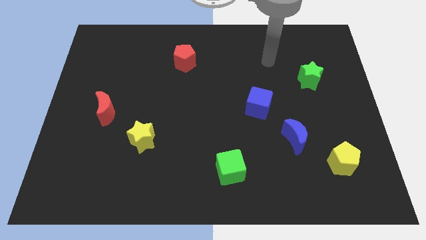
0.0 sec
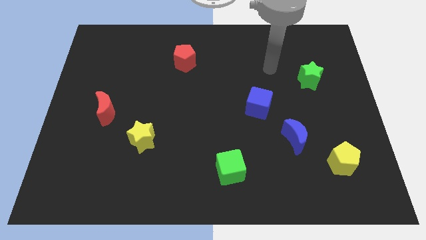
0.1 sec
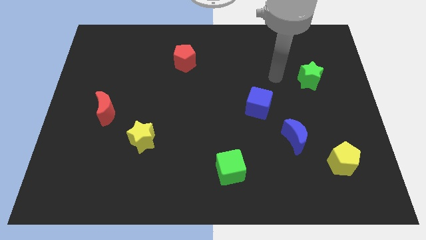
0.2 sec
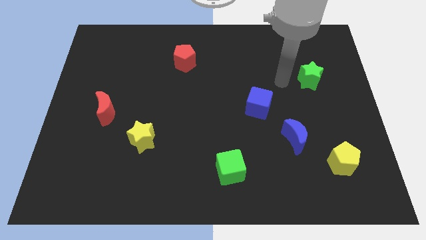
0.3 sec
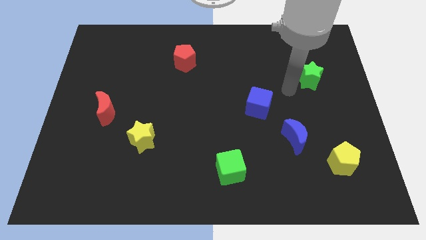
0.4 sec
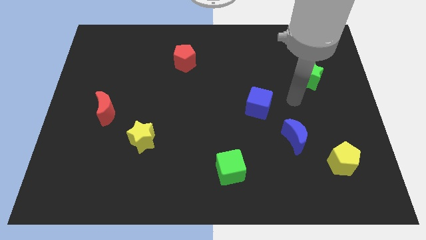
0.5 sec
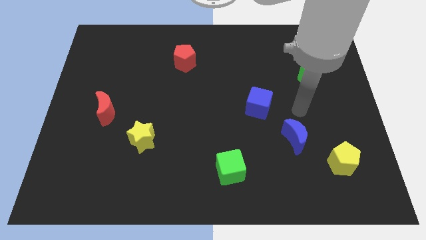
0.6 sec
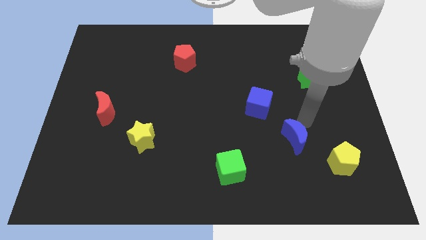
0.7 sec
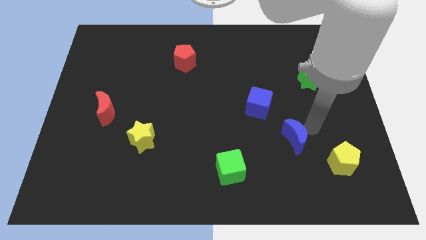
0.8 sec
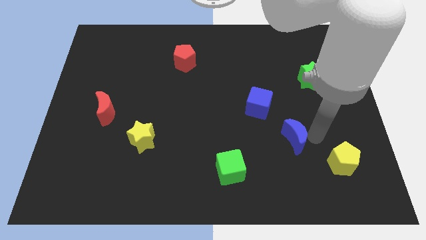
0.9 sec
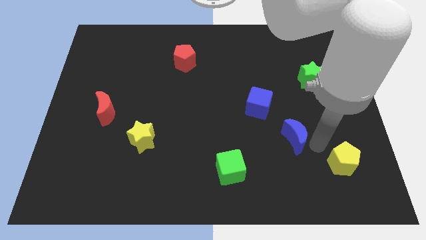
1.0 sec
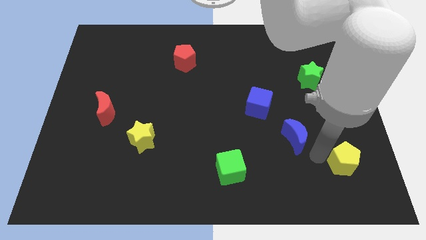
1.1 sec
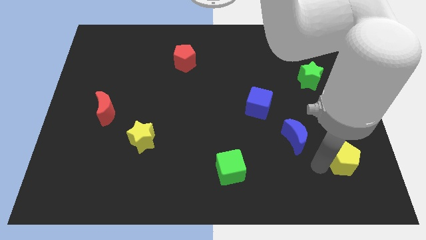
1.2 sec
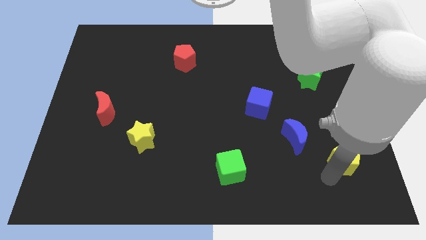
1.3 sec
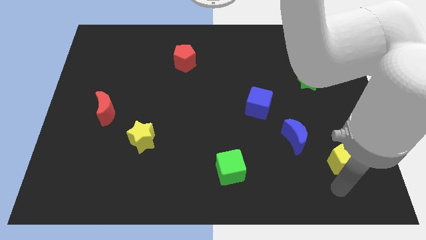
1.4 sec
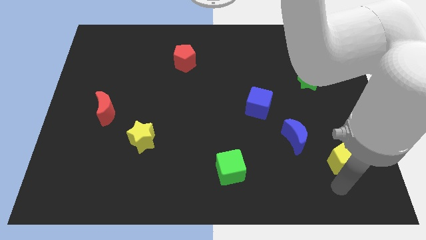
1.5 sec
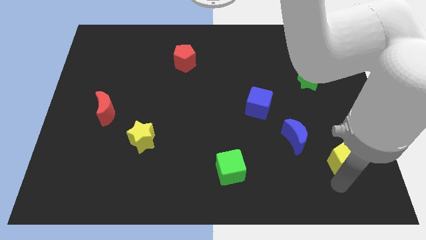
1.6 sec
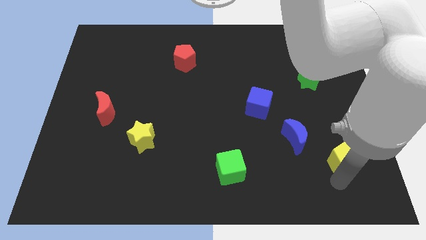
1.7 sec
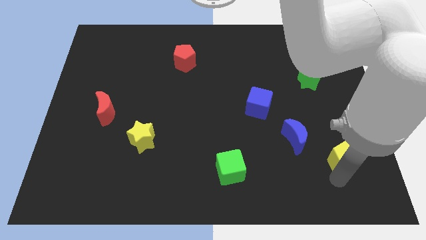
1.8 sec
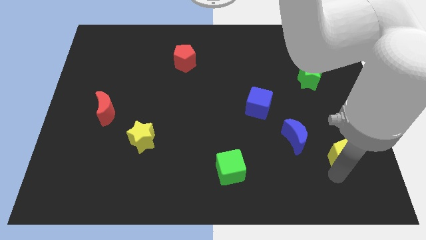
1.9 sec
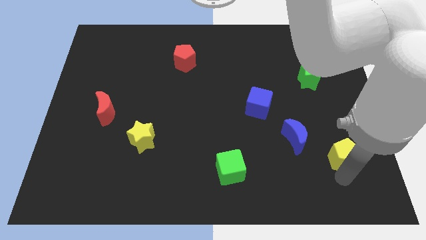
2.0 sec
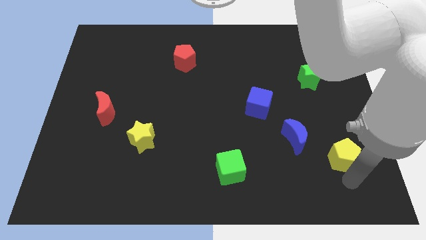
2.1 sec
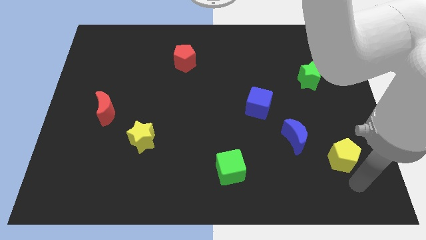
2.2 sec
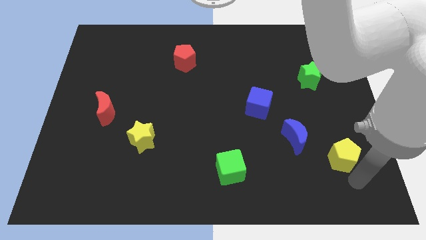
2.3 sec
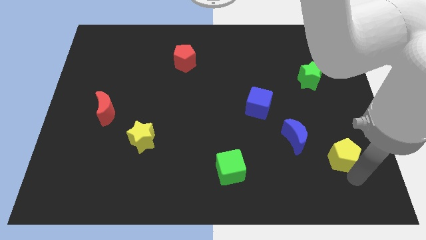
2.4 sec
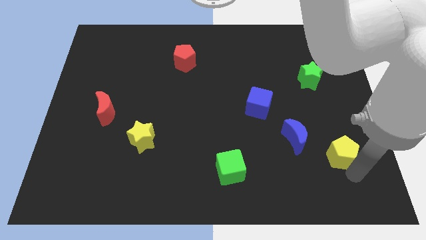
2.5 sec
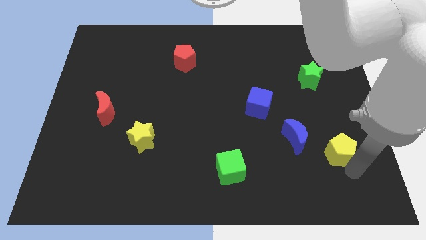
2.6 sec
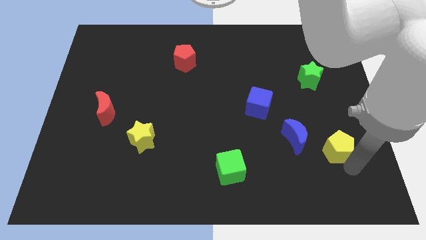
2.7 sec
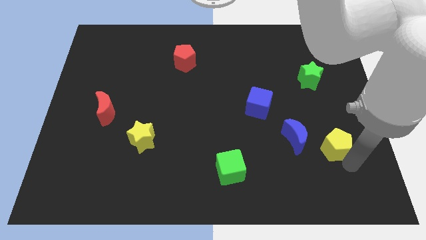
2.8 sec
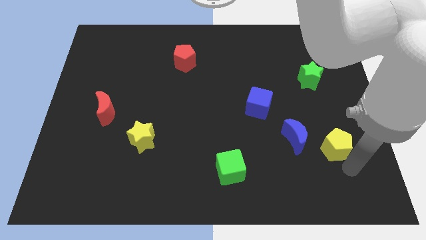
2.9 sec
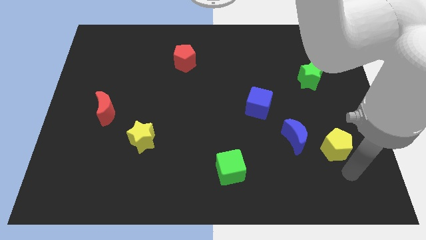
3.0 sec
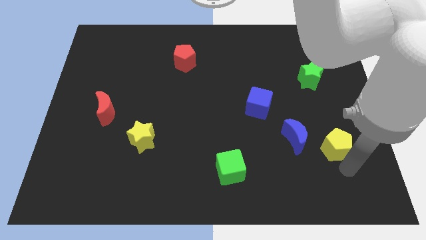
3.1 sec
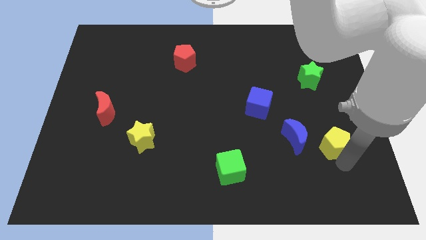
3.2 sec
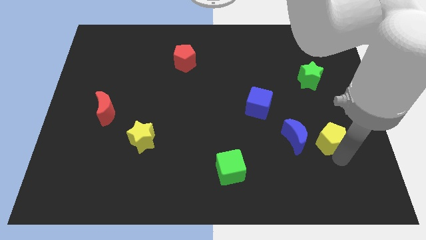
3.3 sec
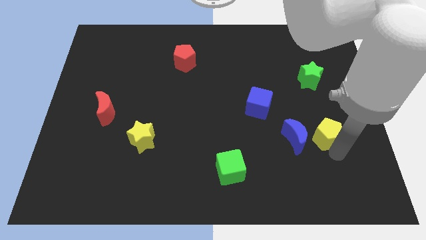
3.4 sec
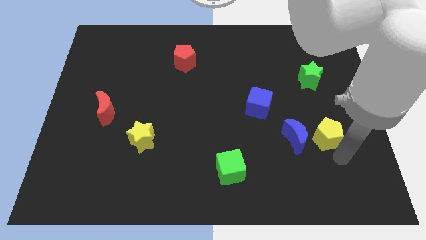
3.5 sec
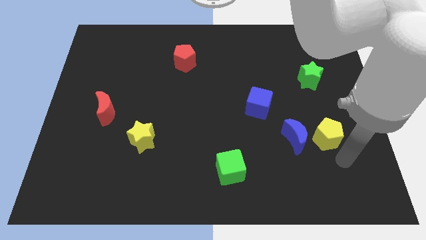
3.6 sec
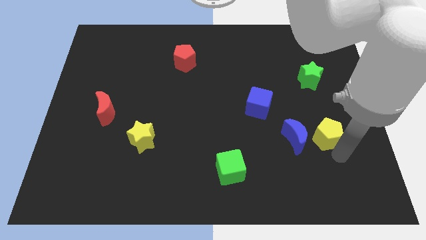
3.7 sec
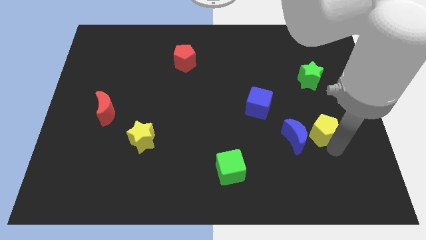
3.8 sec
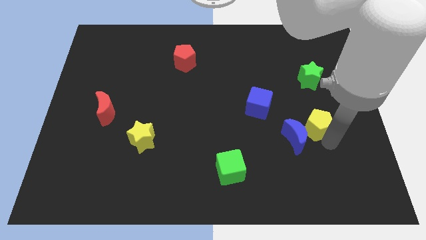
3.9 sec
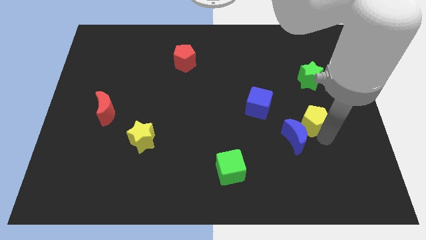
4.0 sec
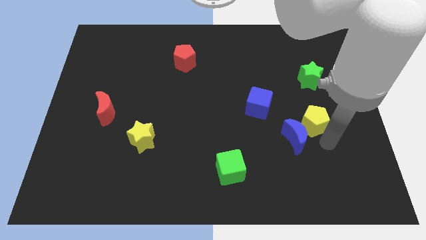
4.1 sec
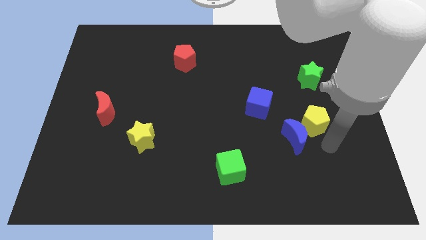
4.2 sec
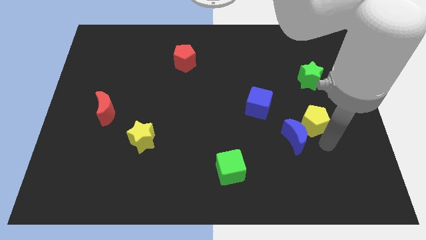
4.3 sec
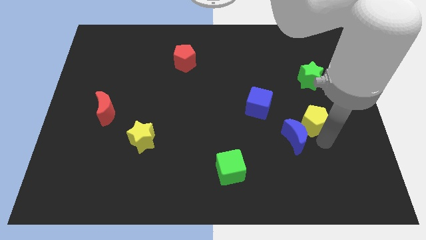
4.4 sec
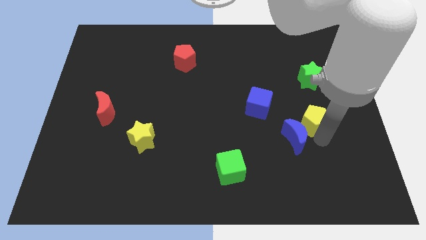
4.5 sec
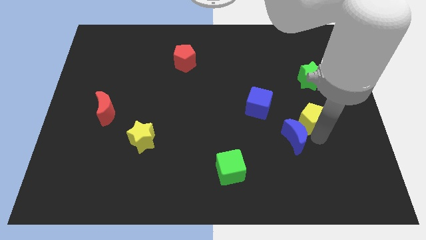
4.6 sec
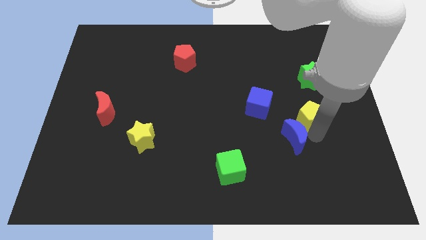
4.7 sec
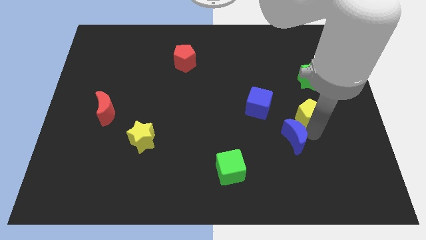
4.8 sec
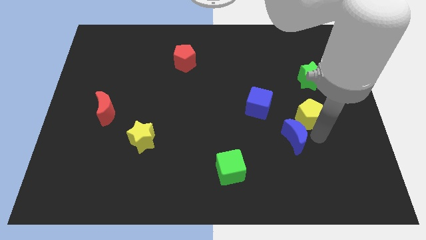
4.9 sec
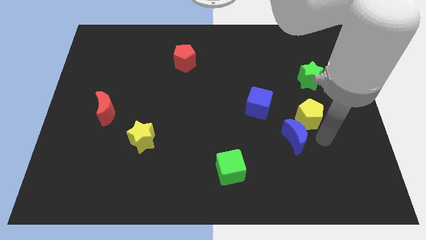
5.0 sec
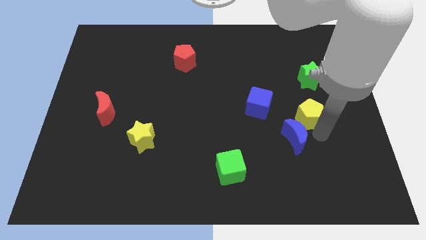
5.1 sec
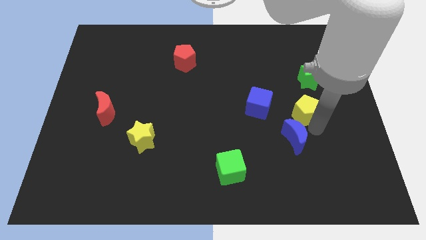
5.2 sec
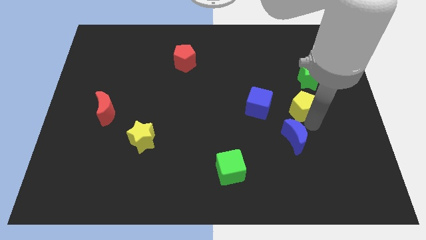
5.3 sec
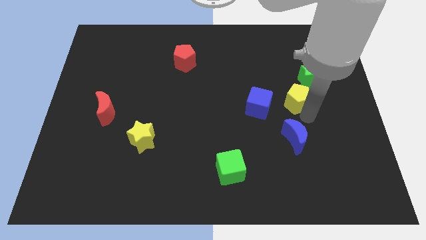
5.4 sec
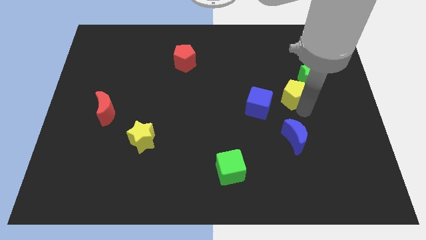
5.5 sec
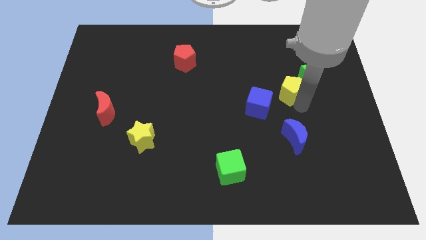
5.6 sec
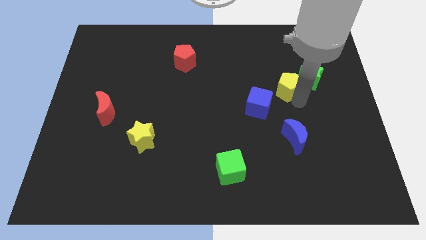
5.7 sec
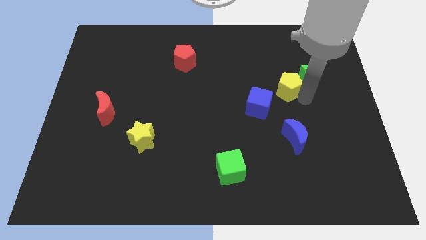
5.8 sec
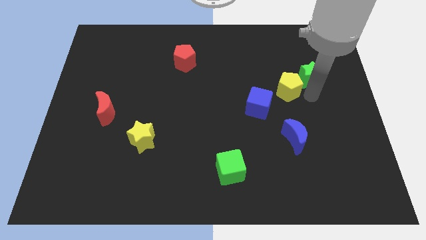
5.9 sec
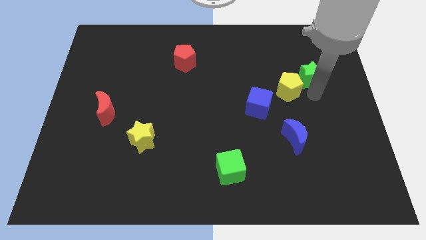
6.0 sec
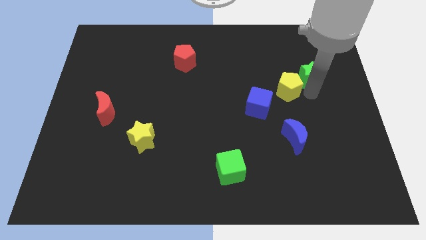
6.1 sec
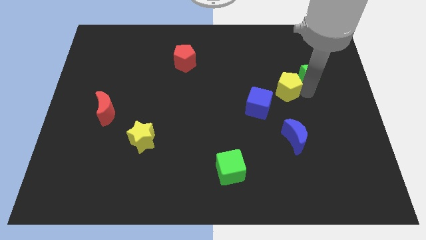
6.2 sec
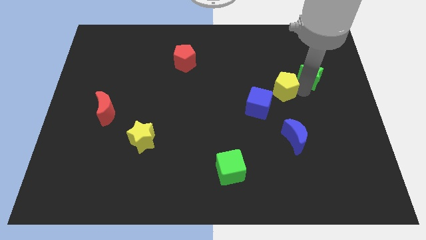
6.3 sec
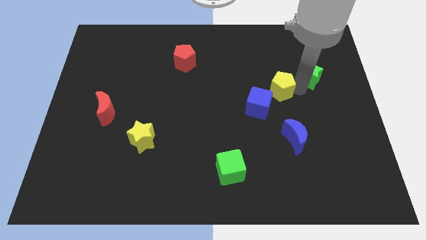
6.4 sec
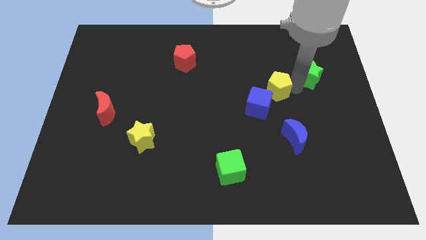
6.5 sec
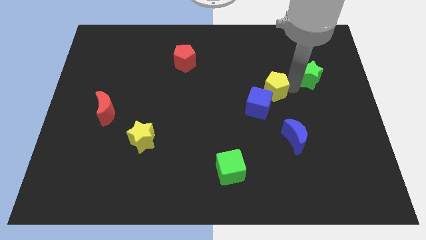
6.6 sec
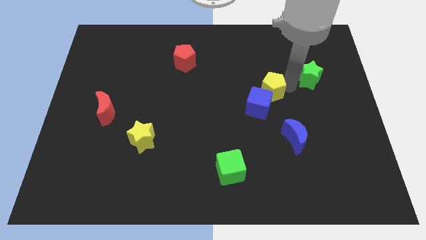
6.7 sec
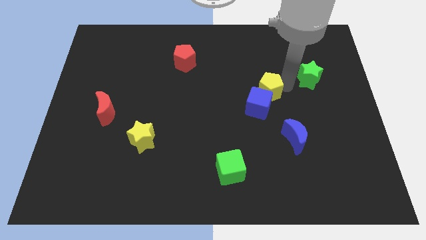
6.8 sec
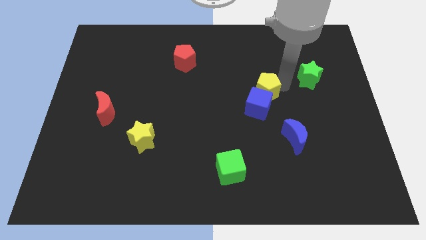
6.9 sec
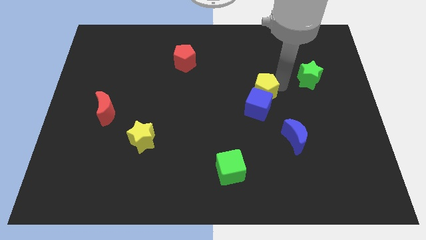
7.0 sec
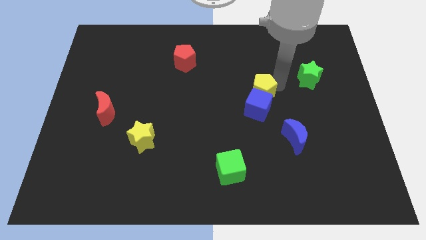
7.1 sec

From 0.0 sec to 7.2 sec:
put the yellow pentagon to the top left of the blue cube
